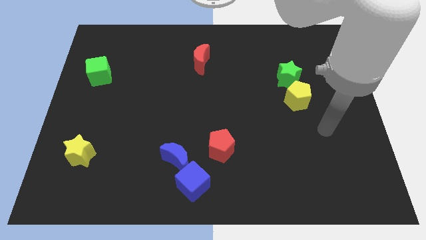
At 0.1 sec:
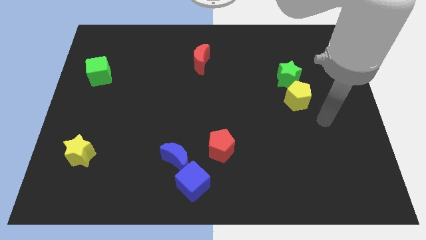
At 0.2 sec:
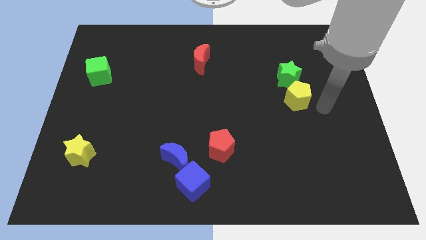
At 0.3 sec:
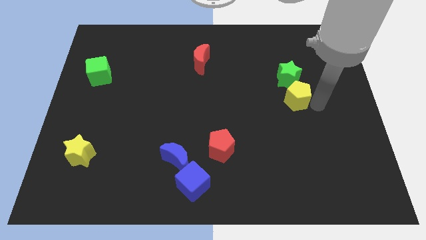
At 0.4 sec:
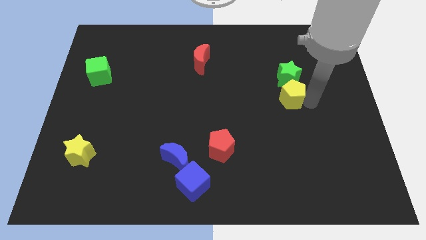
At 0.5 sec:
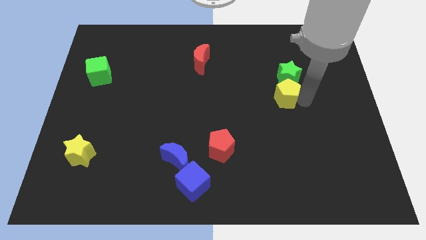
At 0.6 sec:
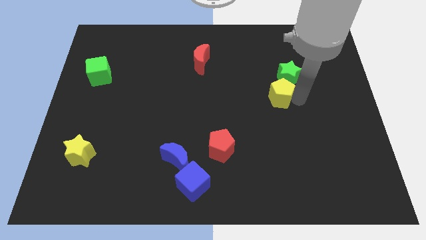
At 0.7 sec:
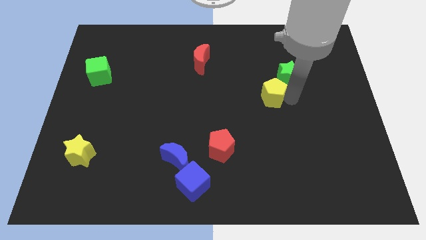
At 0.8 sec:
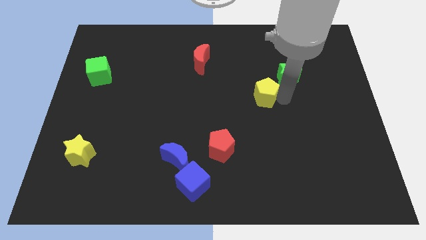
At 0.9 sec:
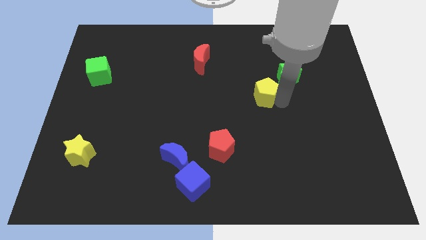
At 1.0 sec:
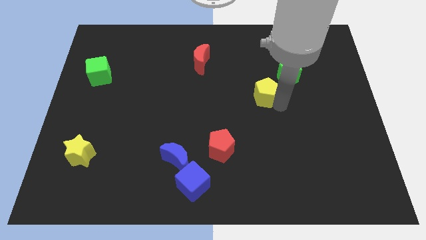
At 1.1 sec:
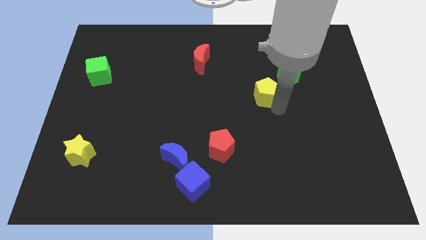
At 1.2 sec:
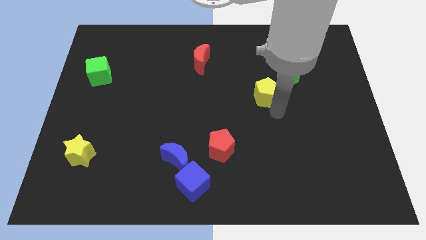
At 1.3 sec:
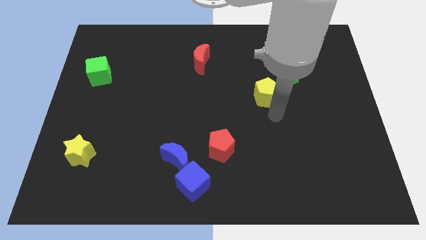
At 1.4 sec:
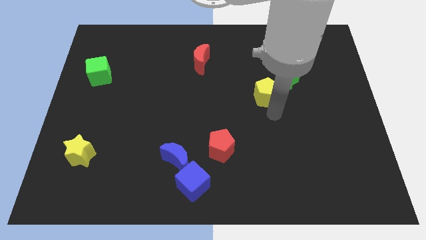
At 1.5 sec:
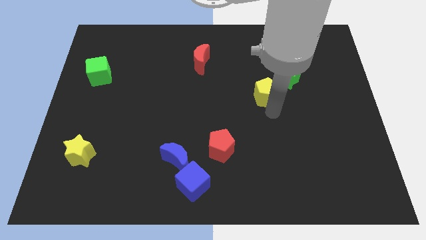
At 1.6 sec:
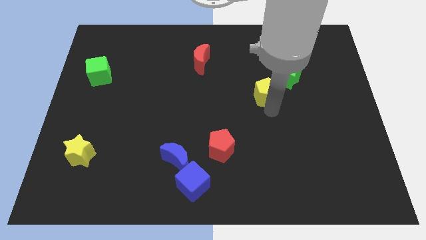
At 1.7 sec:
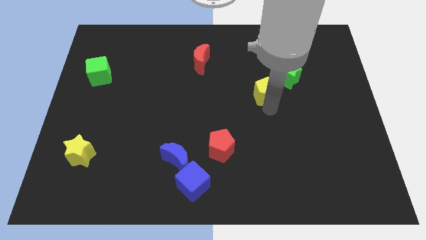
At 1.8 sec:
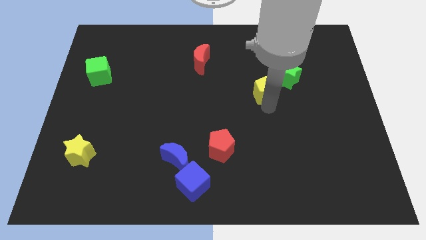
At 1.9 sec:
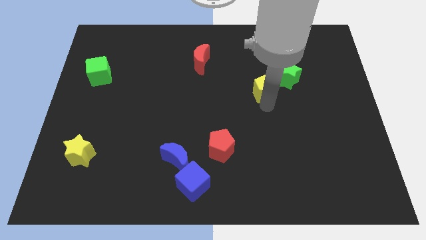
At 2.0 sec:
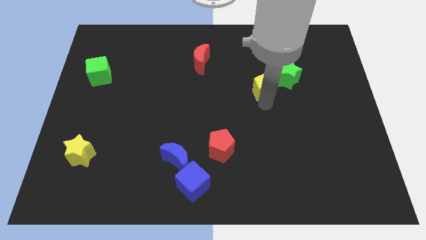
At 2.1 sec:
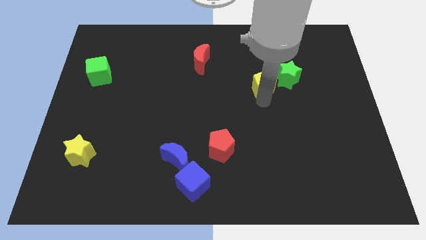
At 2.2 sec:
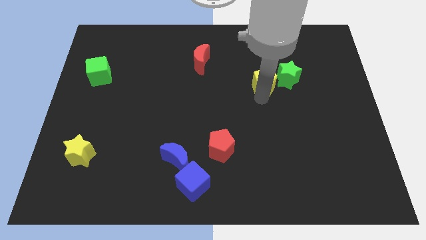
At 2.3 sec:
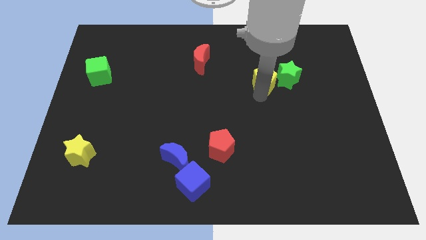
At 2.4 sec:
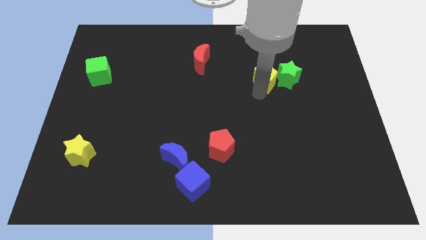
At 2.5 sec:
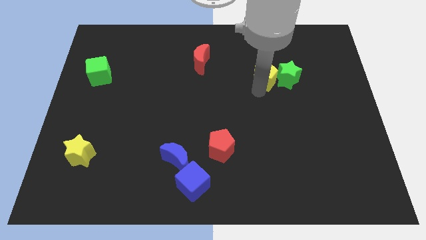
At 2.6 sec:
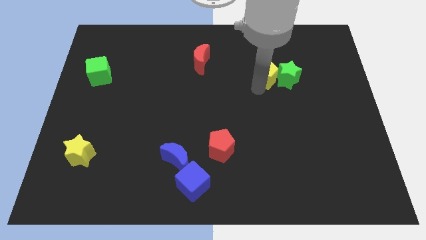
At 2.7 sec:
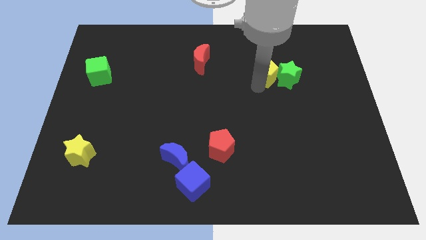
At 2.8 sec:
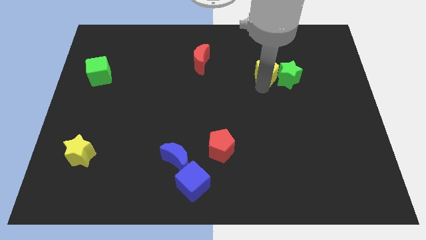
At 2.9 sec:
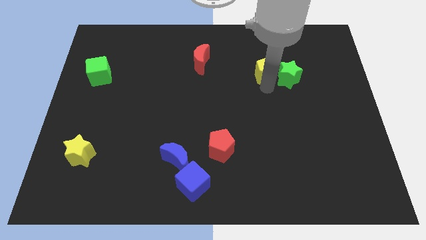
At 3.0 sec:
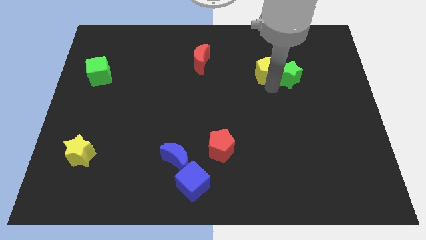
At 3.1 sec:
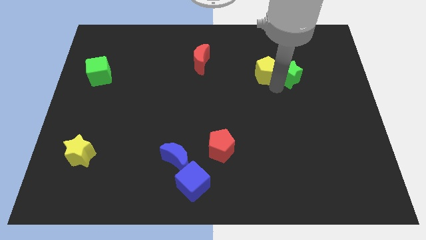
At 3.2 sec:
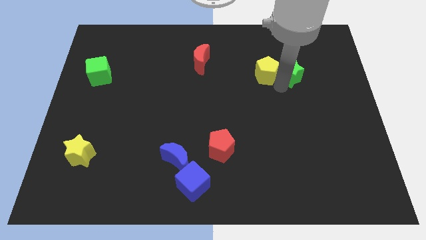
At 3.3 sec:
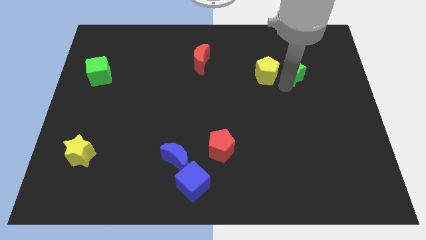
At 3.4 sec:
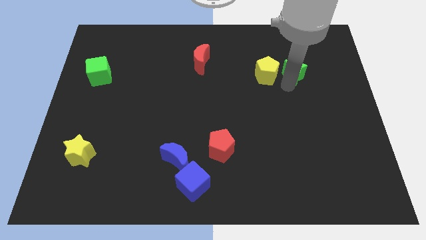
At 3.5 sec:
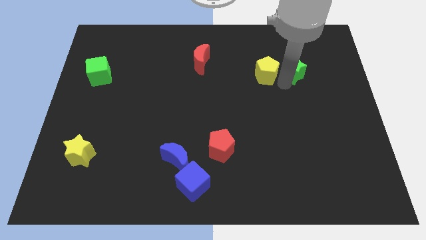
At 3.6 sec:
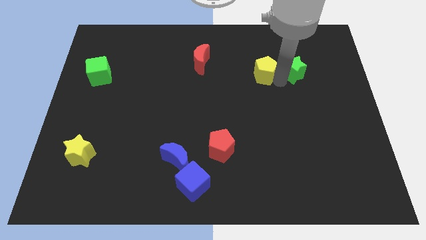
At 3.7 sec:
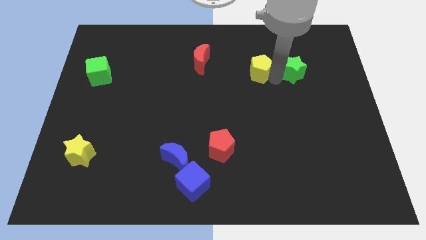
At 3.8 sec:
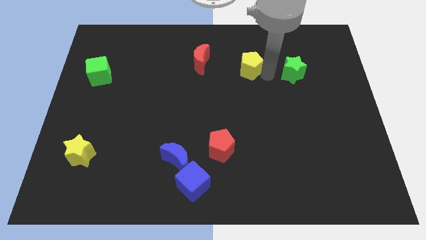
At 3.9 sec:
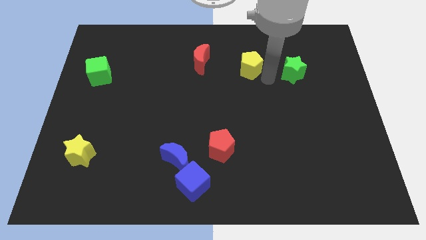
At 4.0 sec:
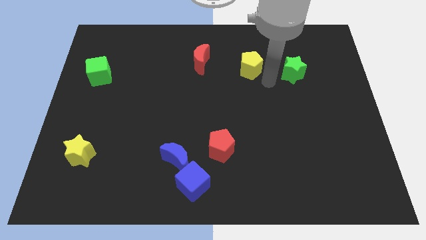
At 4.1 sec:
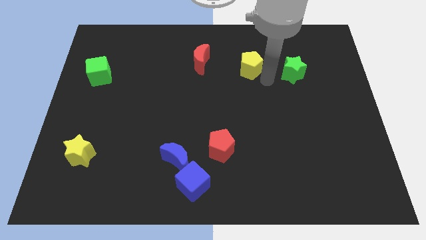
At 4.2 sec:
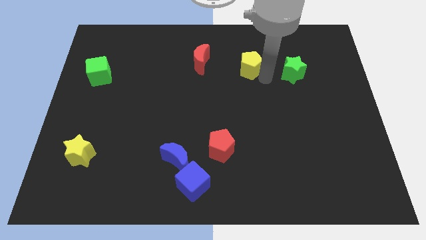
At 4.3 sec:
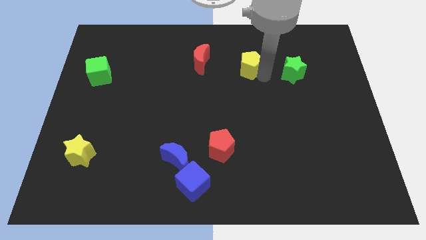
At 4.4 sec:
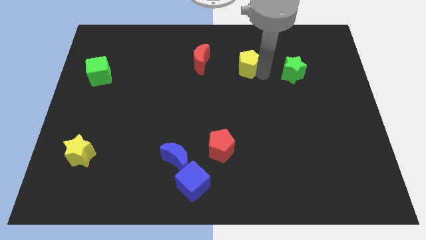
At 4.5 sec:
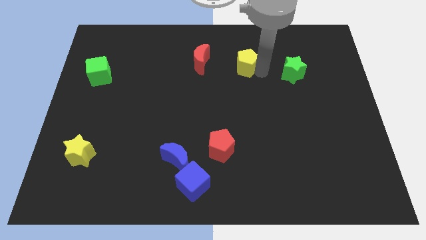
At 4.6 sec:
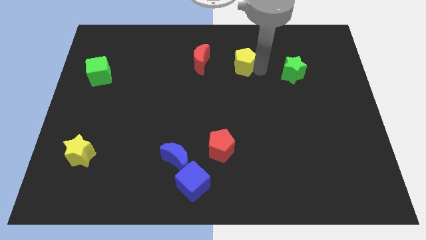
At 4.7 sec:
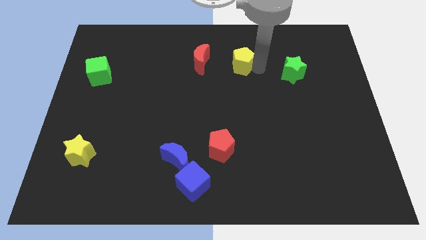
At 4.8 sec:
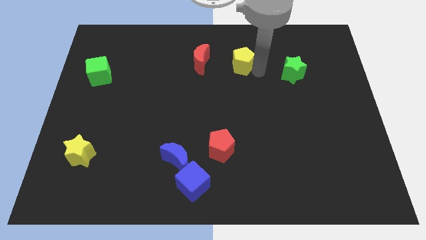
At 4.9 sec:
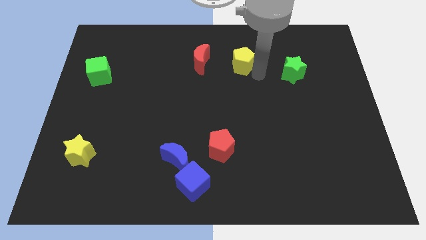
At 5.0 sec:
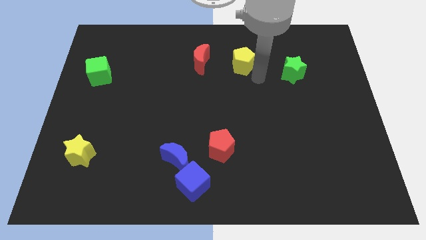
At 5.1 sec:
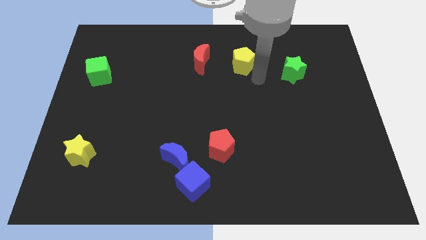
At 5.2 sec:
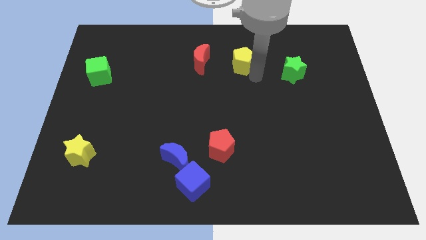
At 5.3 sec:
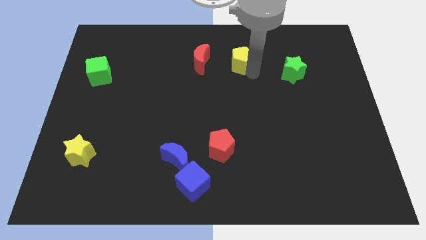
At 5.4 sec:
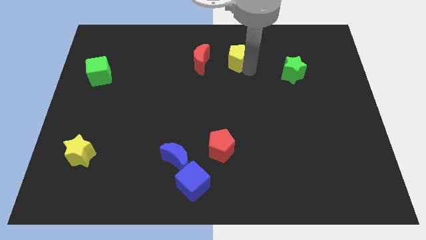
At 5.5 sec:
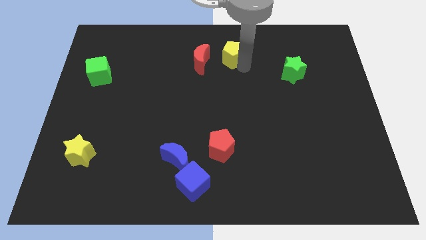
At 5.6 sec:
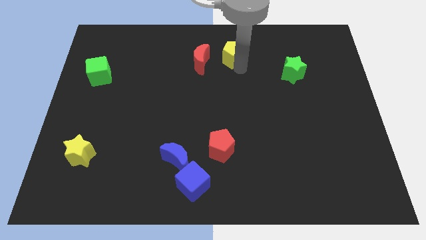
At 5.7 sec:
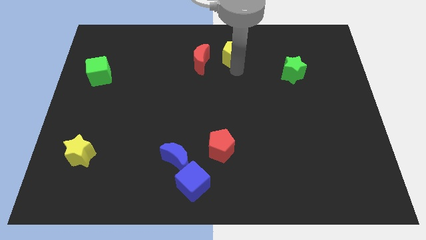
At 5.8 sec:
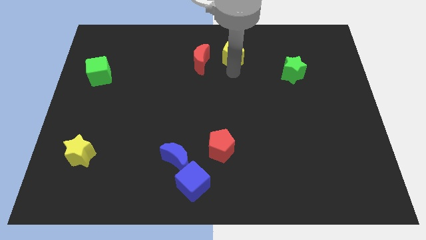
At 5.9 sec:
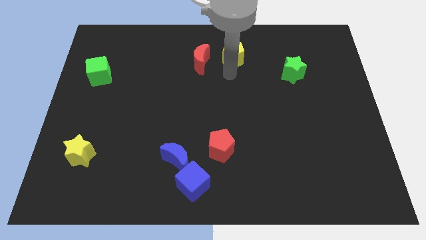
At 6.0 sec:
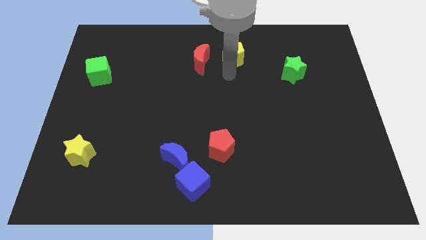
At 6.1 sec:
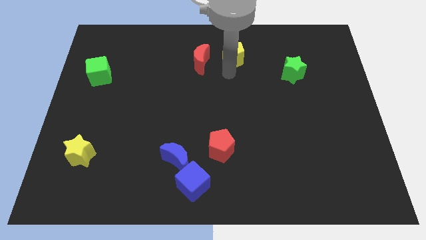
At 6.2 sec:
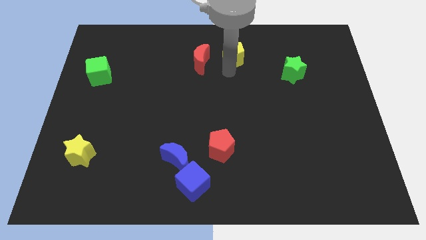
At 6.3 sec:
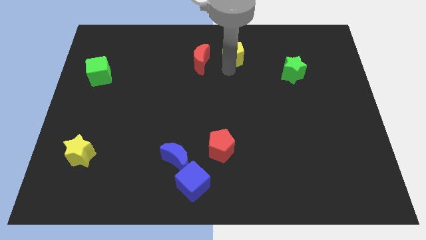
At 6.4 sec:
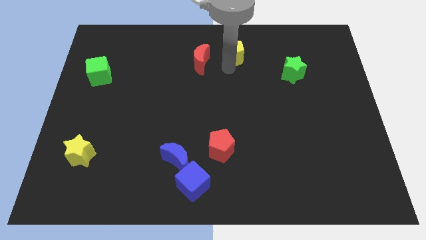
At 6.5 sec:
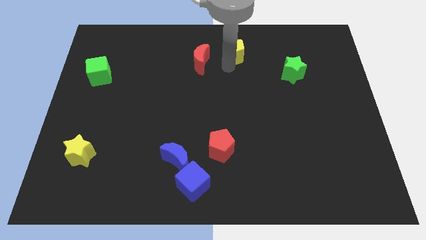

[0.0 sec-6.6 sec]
push the yellow pentagon to the towards your base
